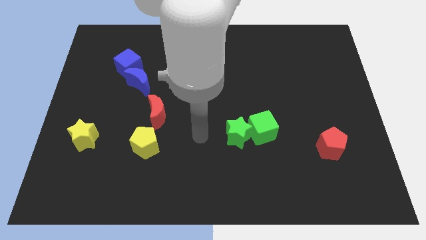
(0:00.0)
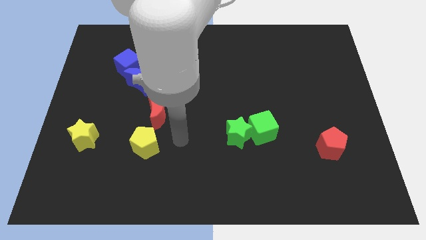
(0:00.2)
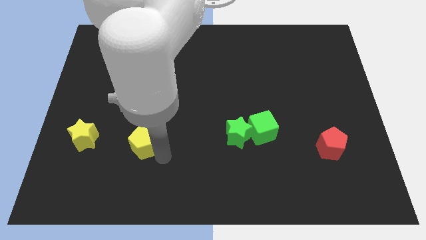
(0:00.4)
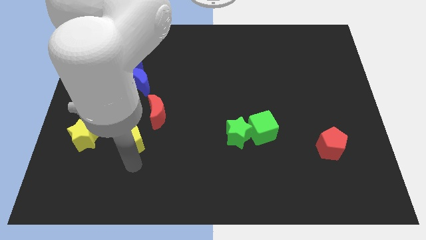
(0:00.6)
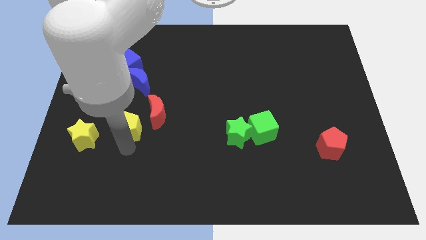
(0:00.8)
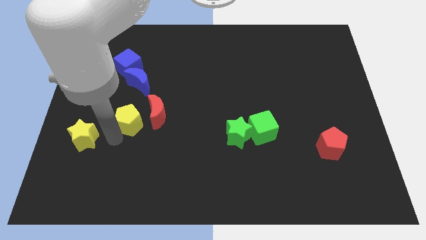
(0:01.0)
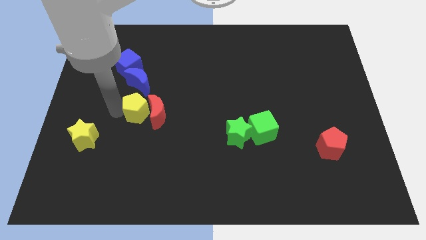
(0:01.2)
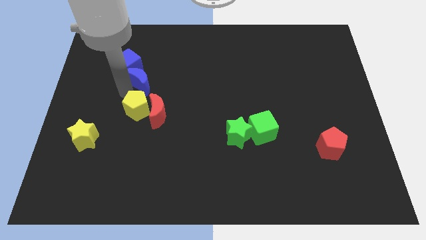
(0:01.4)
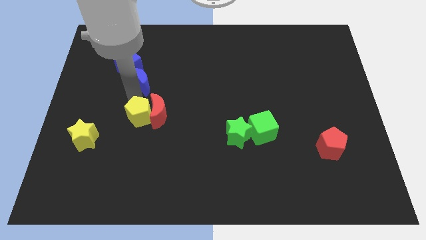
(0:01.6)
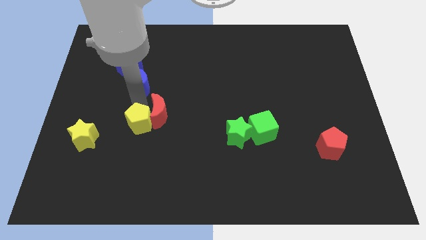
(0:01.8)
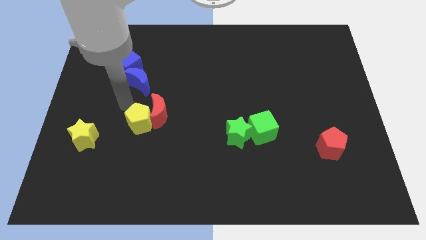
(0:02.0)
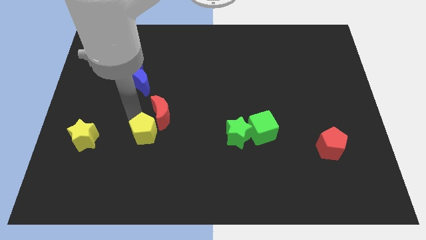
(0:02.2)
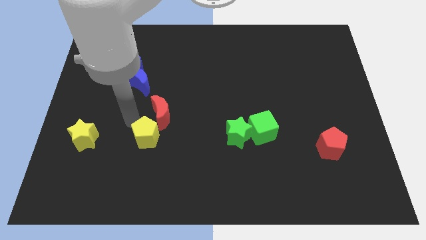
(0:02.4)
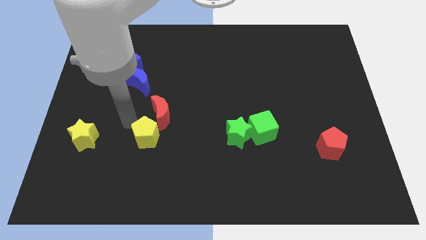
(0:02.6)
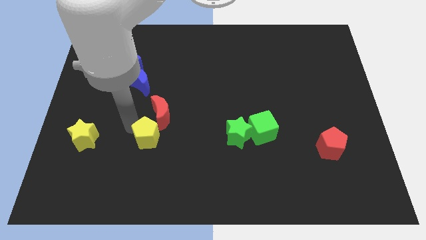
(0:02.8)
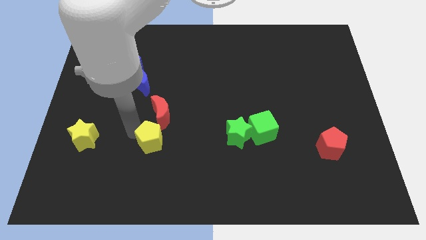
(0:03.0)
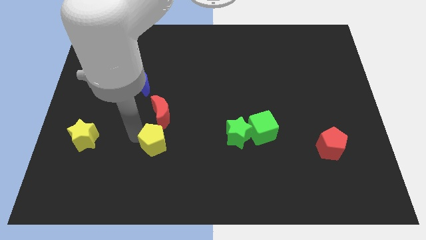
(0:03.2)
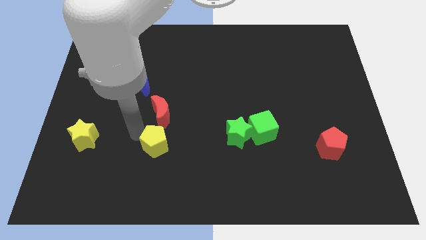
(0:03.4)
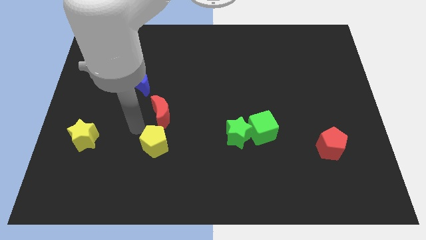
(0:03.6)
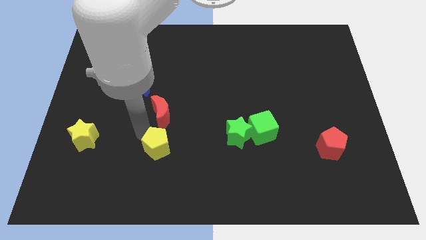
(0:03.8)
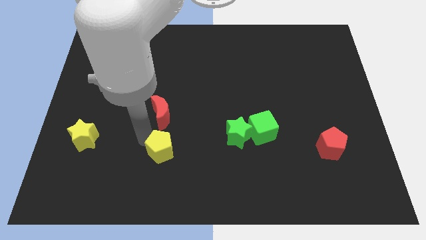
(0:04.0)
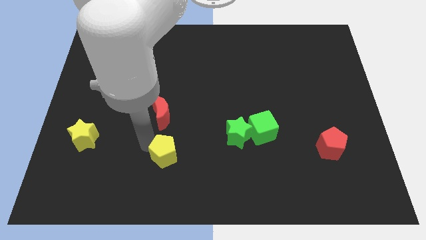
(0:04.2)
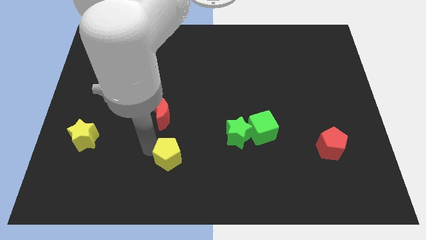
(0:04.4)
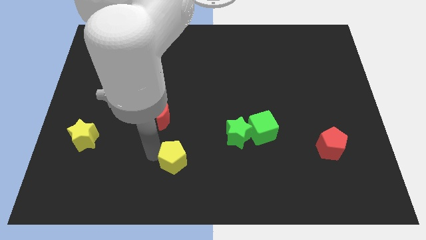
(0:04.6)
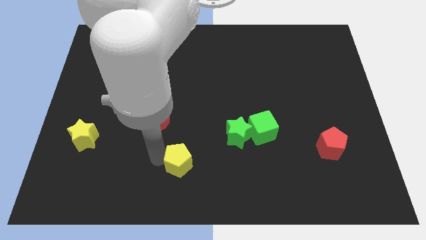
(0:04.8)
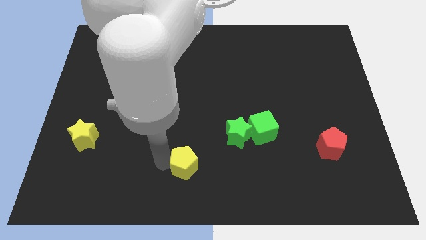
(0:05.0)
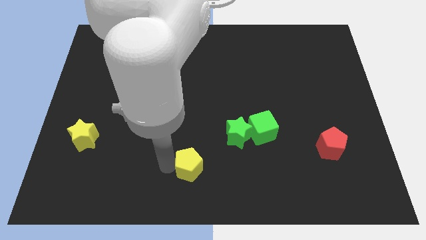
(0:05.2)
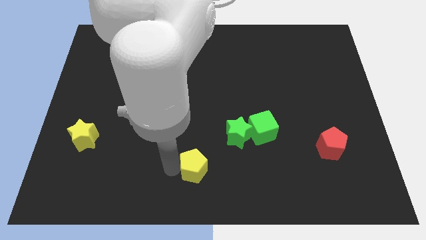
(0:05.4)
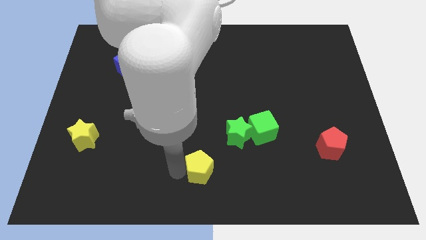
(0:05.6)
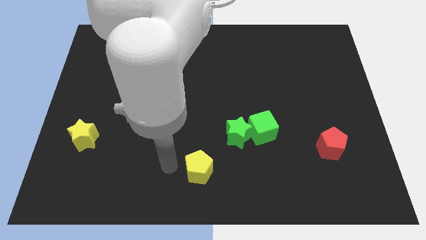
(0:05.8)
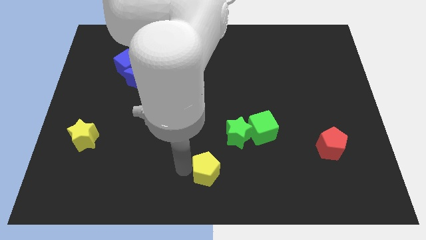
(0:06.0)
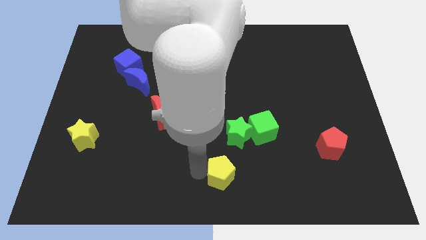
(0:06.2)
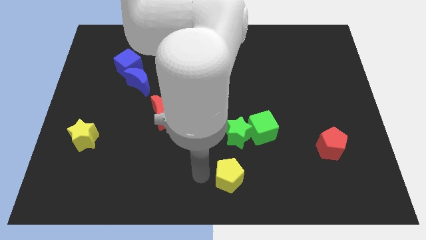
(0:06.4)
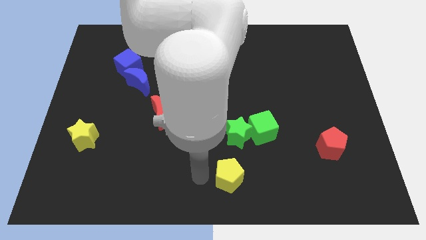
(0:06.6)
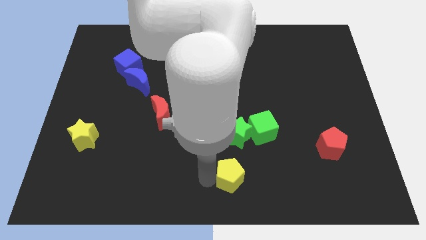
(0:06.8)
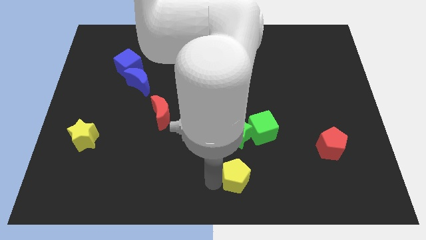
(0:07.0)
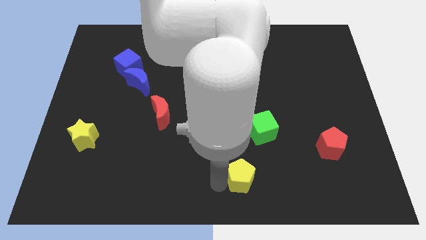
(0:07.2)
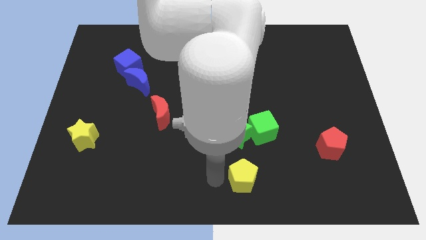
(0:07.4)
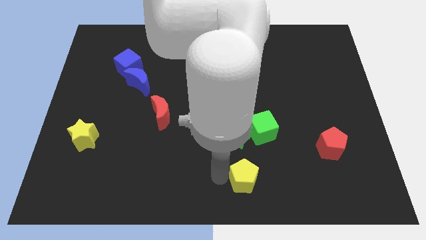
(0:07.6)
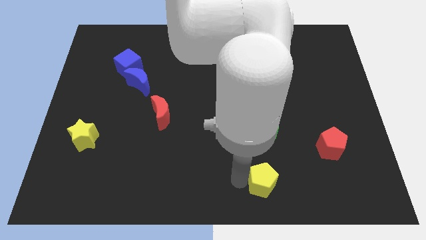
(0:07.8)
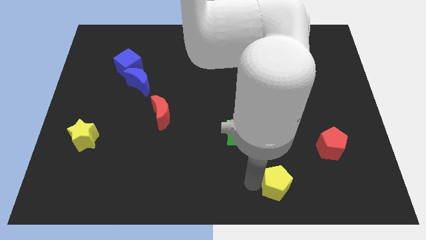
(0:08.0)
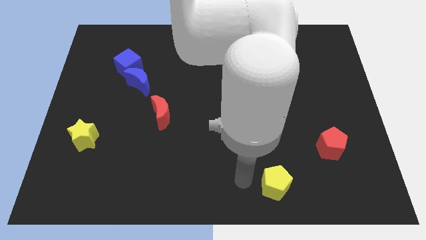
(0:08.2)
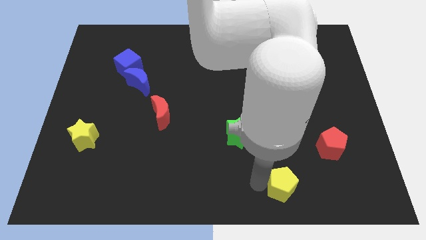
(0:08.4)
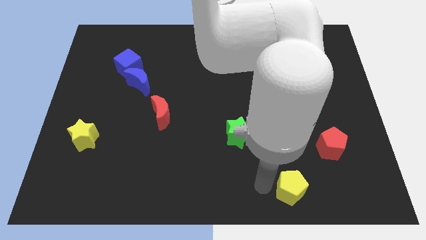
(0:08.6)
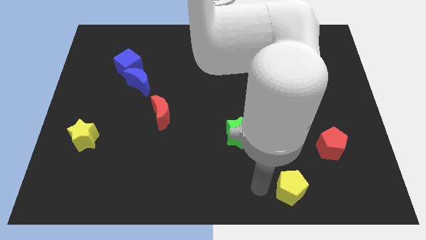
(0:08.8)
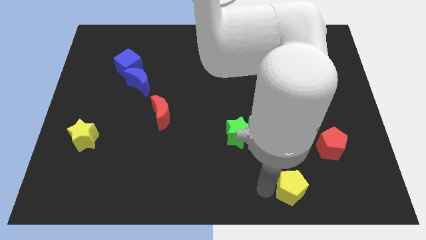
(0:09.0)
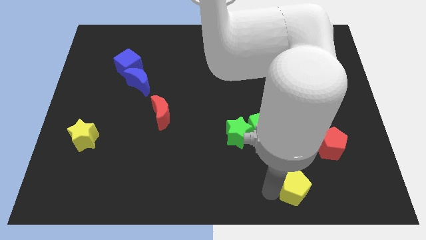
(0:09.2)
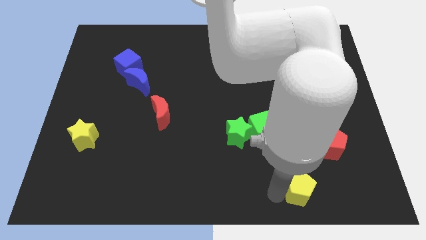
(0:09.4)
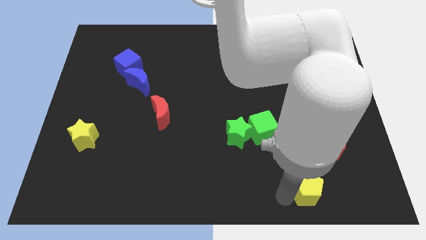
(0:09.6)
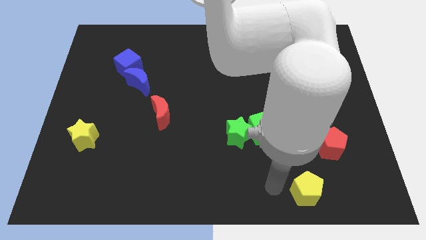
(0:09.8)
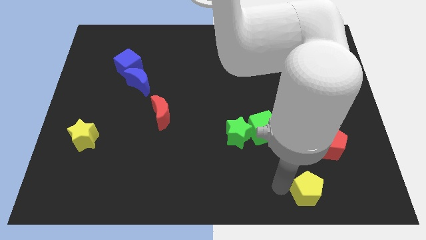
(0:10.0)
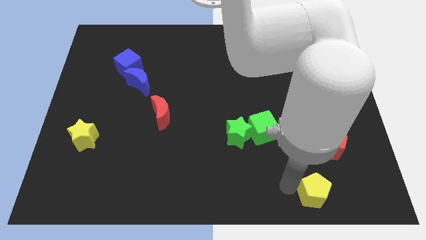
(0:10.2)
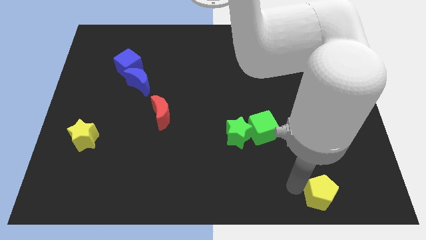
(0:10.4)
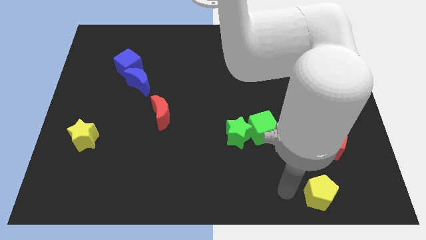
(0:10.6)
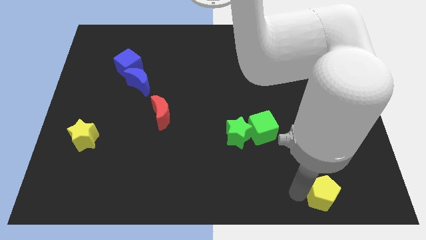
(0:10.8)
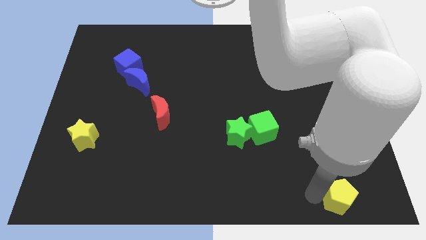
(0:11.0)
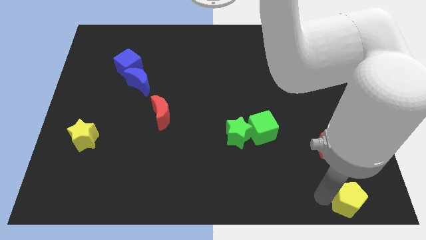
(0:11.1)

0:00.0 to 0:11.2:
move the yellow pentagon to the bottom right of the board

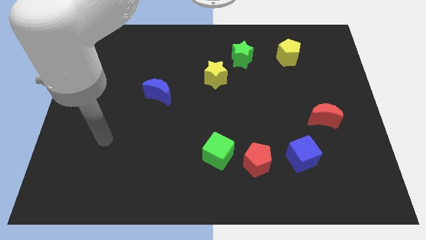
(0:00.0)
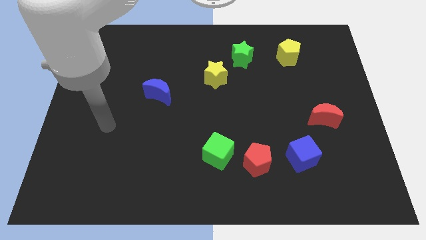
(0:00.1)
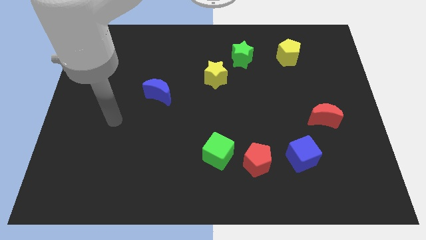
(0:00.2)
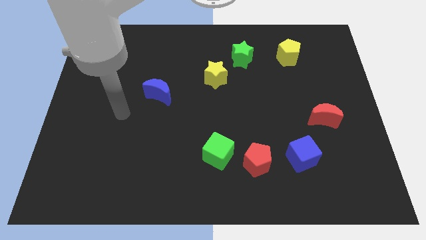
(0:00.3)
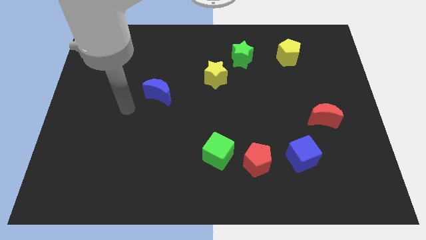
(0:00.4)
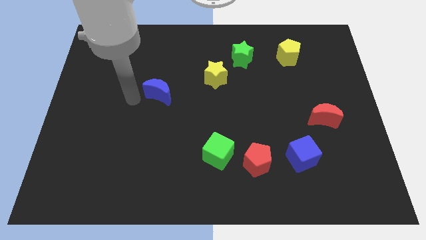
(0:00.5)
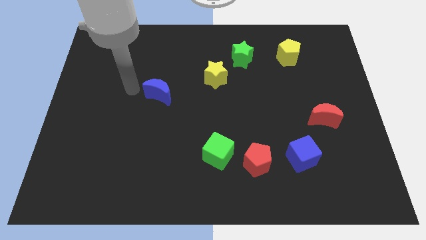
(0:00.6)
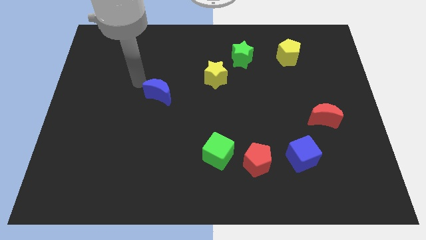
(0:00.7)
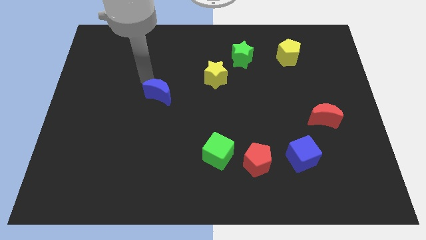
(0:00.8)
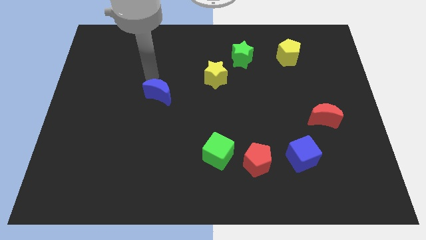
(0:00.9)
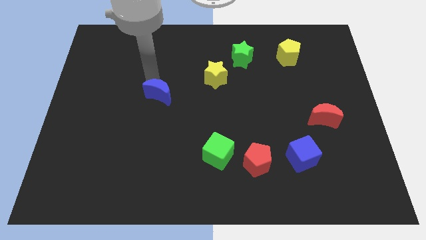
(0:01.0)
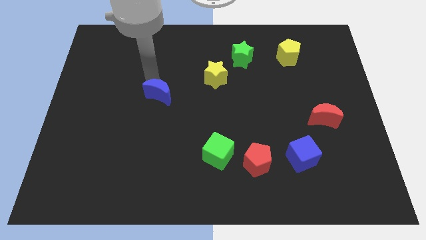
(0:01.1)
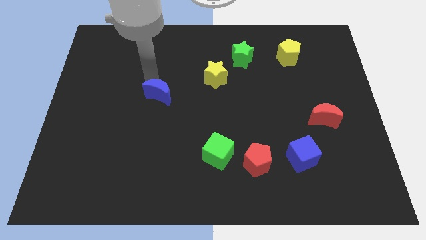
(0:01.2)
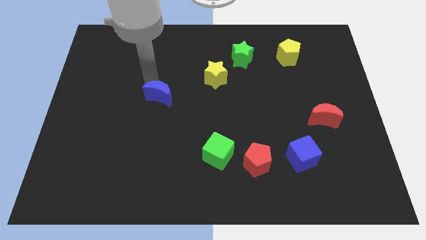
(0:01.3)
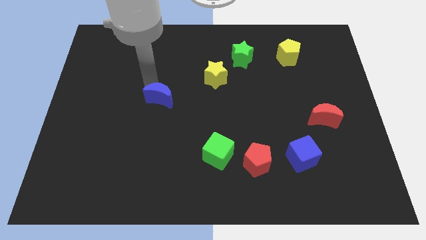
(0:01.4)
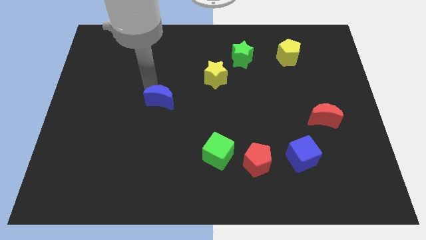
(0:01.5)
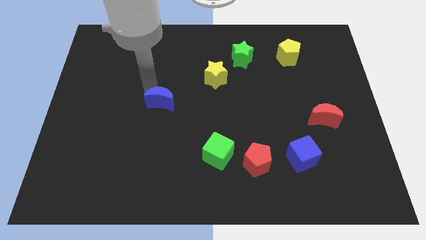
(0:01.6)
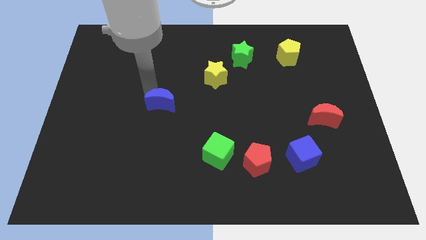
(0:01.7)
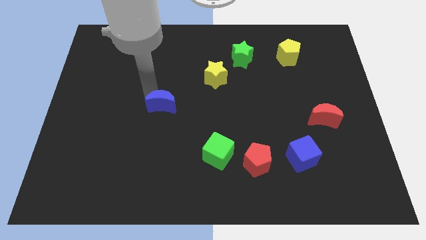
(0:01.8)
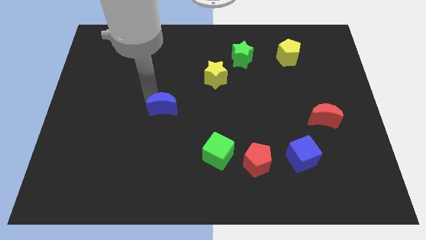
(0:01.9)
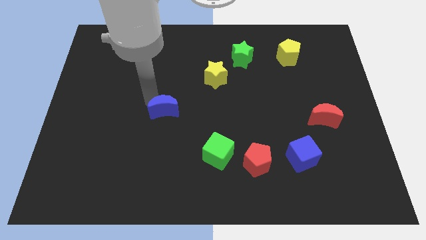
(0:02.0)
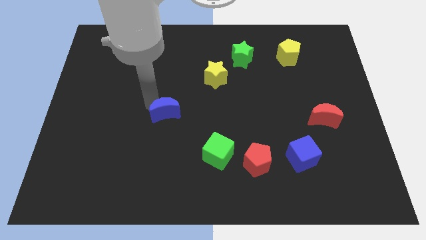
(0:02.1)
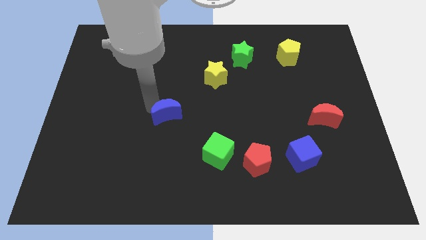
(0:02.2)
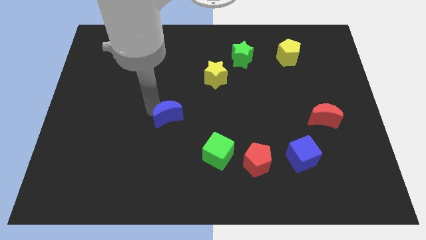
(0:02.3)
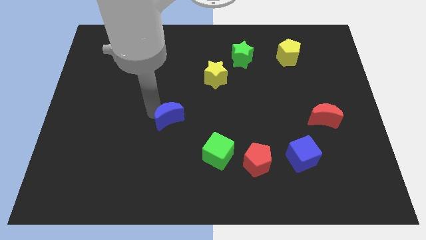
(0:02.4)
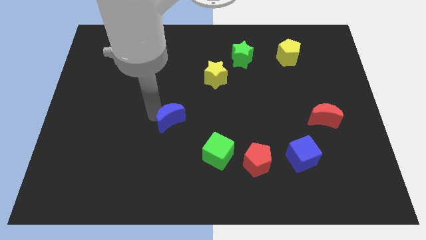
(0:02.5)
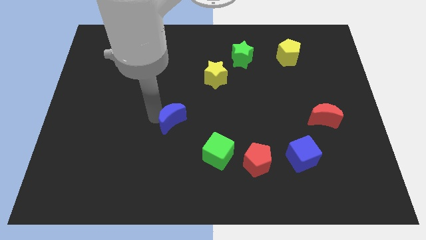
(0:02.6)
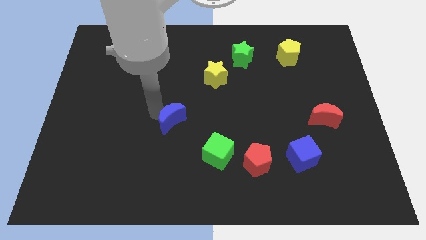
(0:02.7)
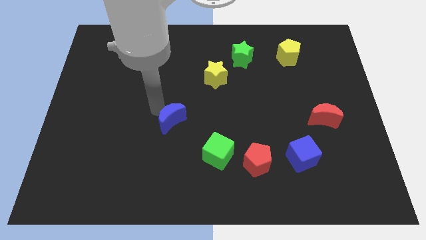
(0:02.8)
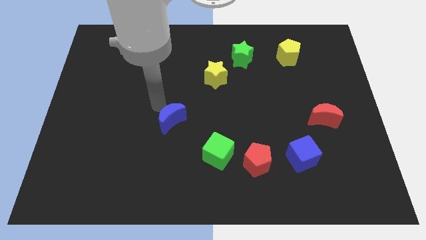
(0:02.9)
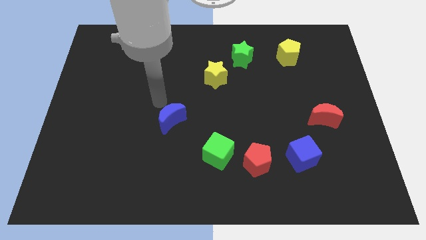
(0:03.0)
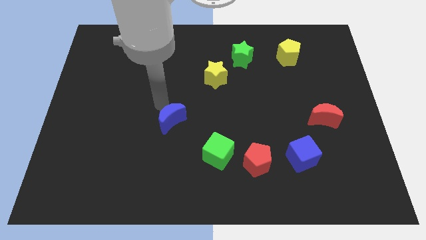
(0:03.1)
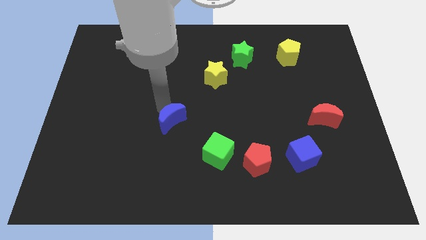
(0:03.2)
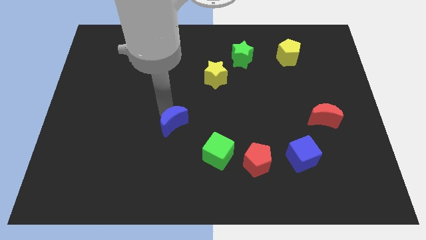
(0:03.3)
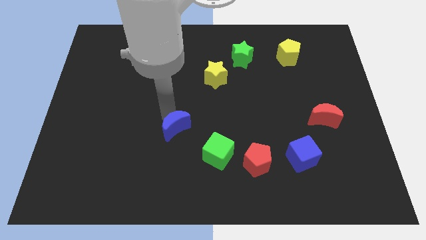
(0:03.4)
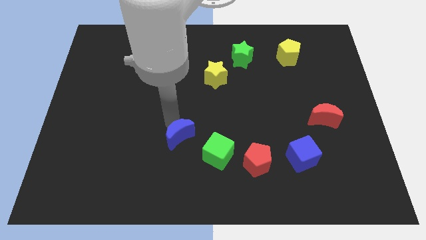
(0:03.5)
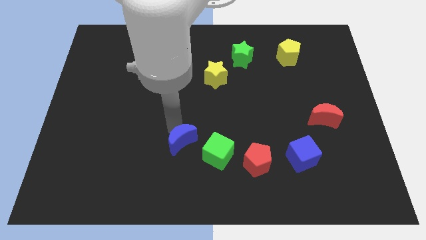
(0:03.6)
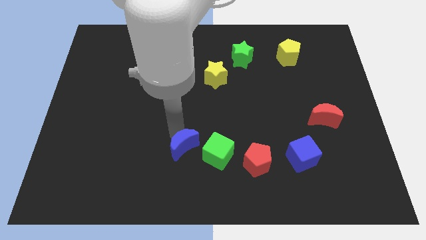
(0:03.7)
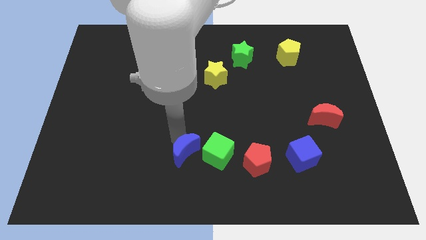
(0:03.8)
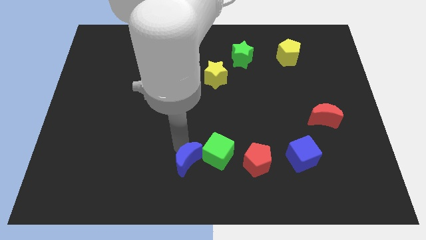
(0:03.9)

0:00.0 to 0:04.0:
put the blue moon to the bottom side
